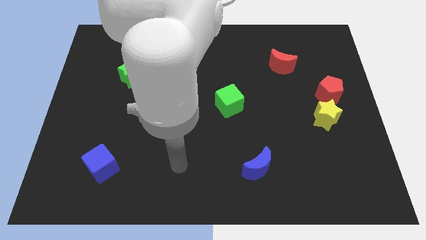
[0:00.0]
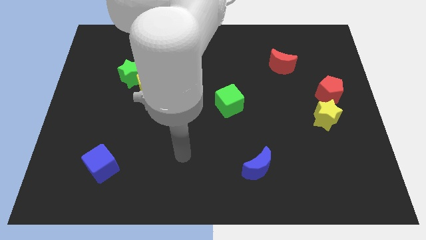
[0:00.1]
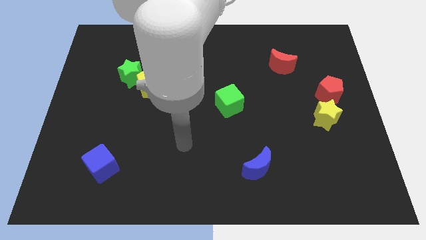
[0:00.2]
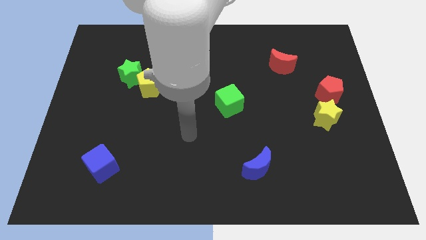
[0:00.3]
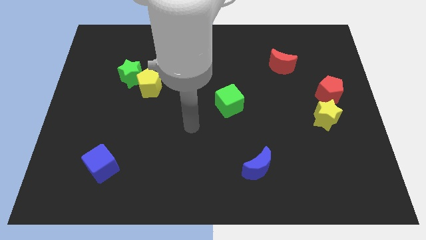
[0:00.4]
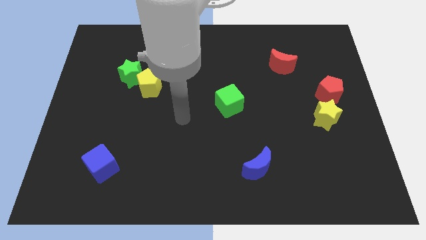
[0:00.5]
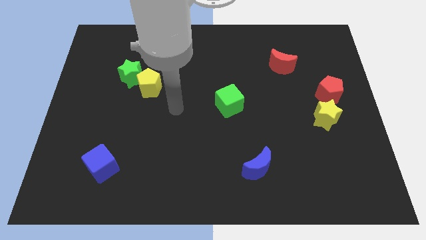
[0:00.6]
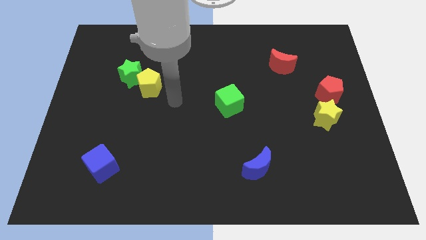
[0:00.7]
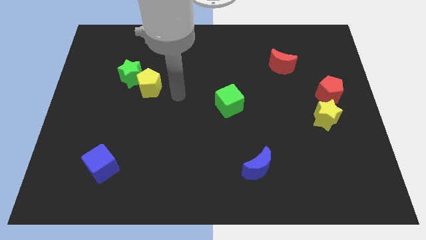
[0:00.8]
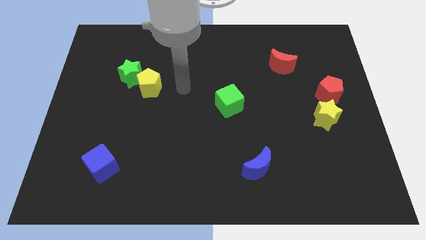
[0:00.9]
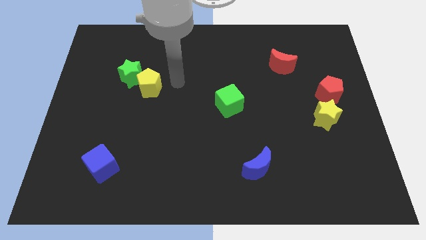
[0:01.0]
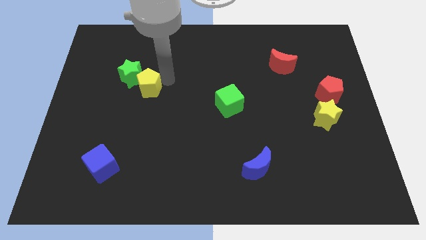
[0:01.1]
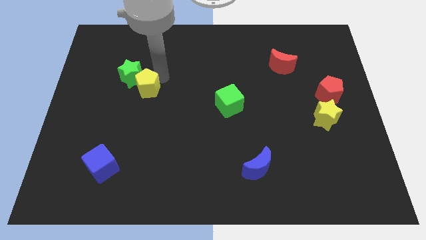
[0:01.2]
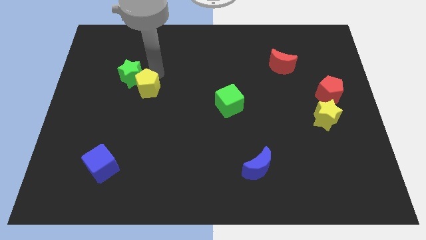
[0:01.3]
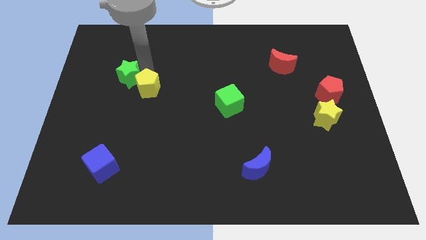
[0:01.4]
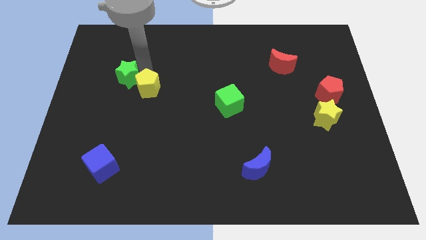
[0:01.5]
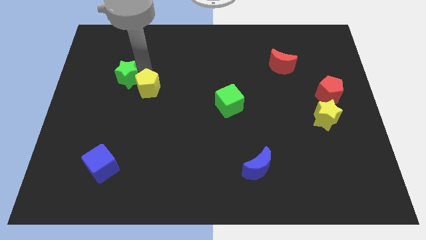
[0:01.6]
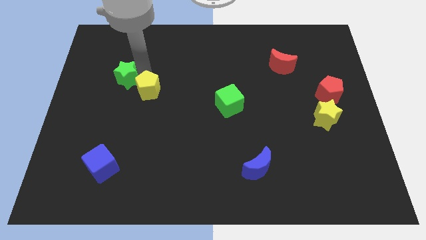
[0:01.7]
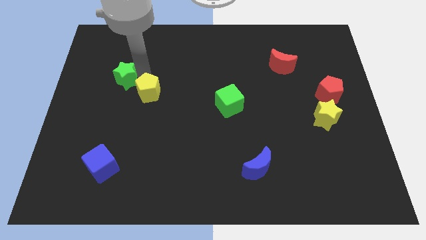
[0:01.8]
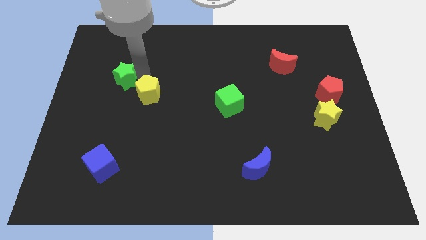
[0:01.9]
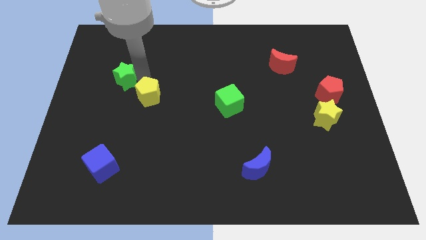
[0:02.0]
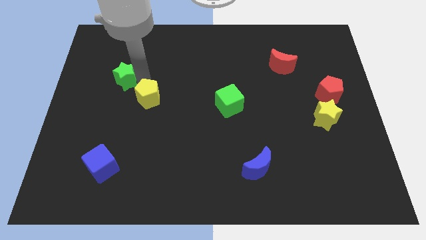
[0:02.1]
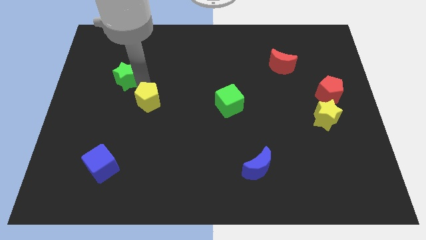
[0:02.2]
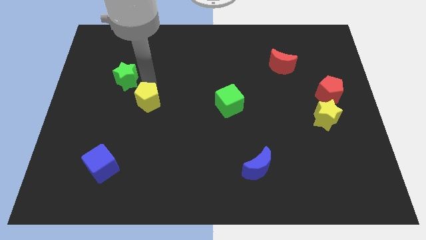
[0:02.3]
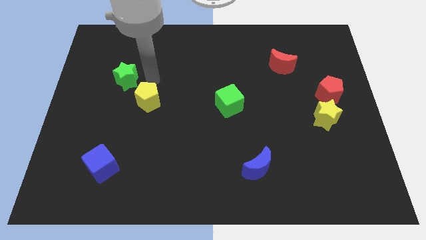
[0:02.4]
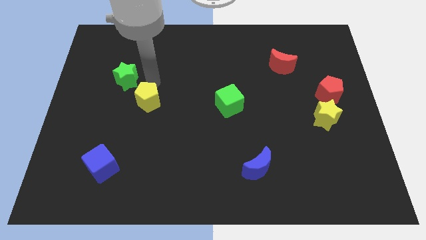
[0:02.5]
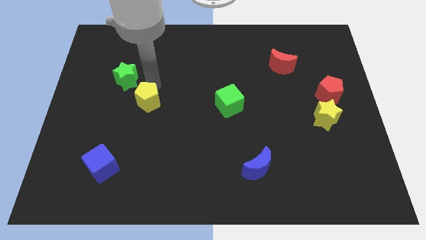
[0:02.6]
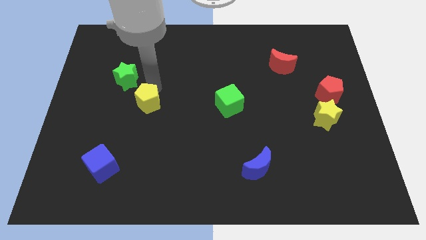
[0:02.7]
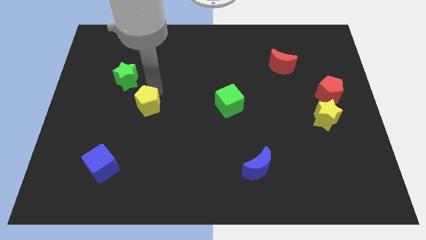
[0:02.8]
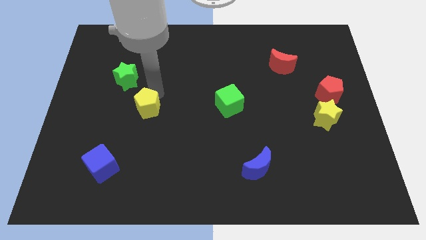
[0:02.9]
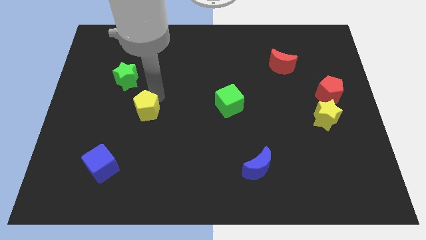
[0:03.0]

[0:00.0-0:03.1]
push the yellow pentagon down a little

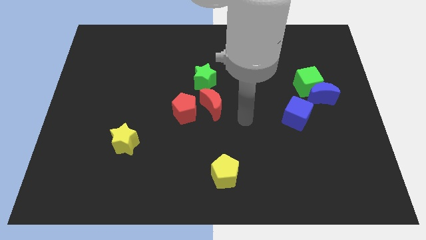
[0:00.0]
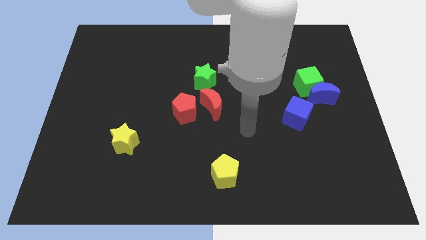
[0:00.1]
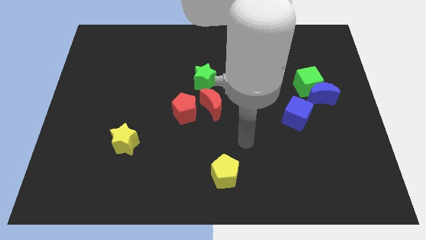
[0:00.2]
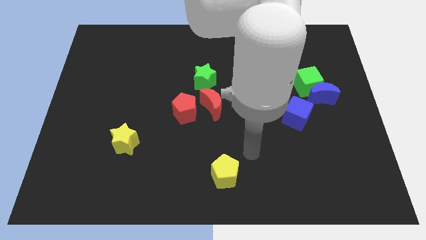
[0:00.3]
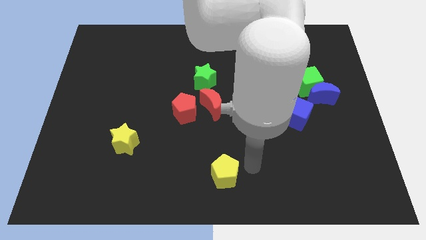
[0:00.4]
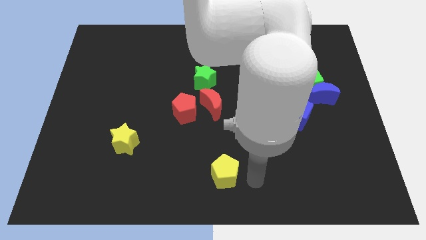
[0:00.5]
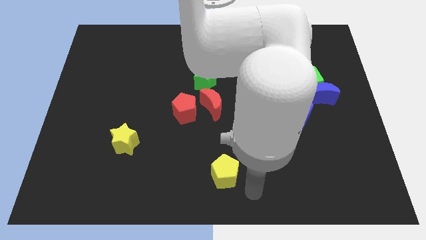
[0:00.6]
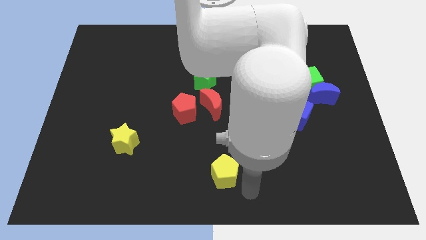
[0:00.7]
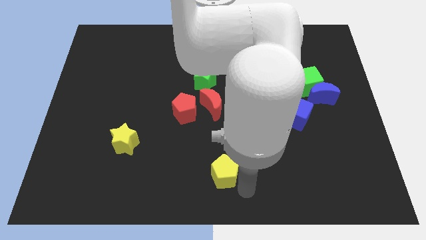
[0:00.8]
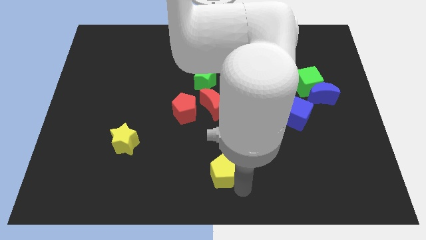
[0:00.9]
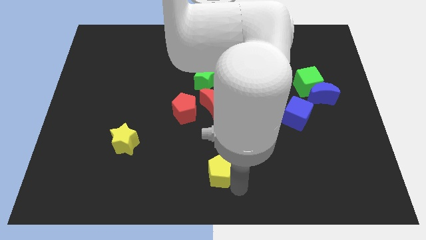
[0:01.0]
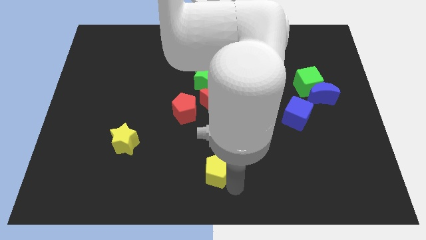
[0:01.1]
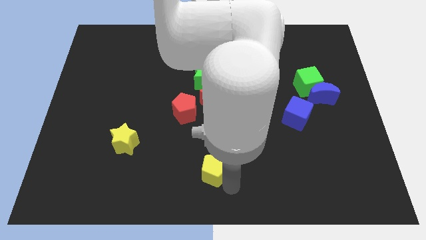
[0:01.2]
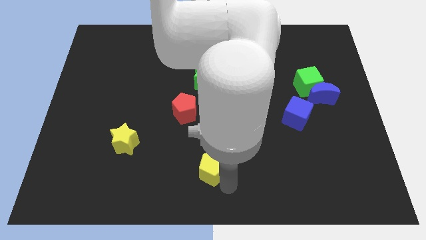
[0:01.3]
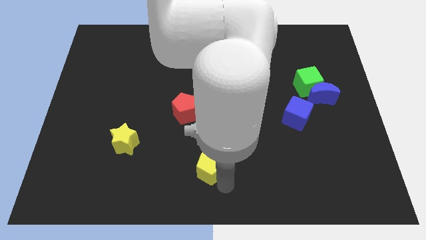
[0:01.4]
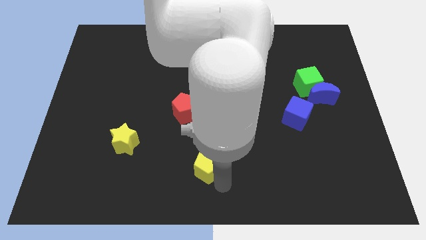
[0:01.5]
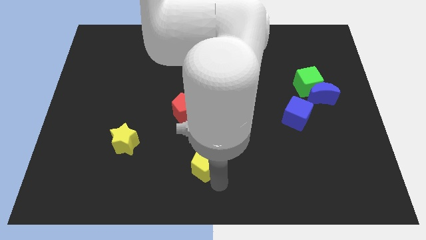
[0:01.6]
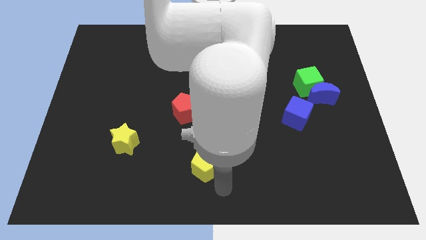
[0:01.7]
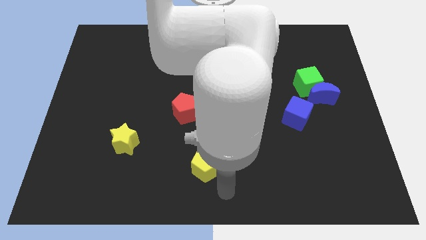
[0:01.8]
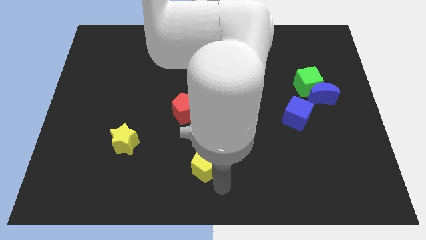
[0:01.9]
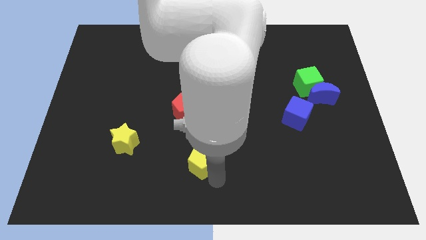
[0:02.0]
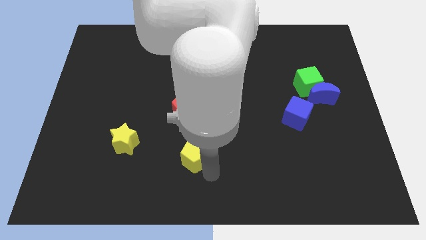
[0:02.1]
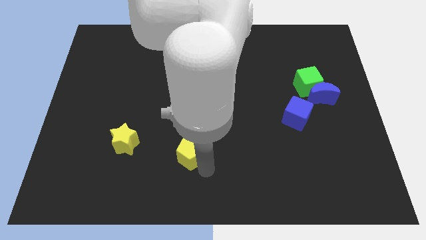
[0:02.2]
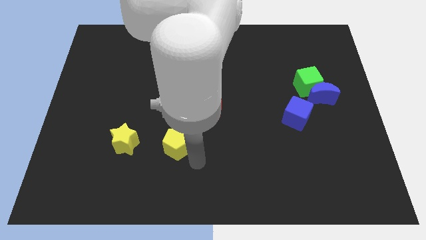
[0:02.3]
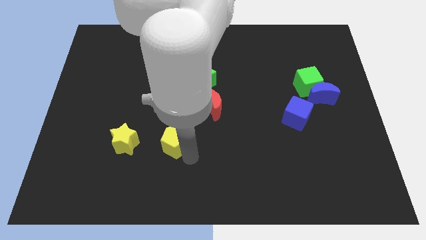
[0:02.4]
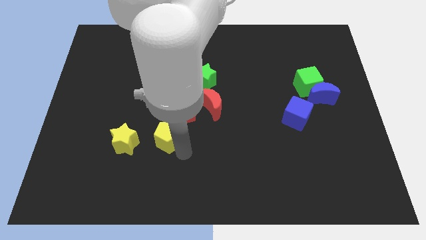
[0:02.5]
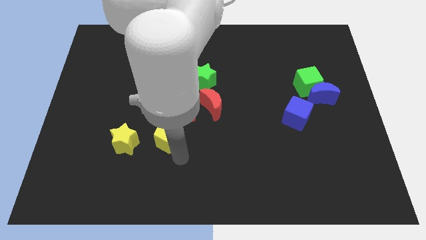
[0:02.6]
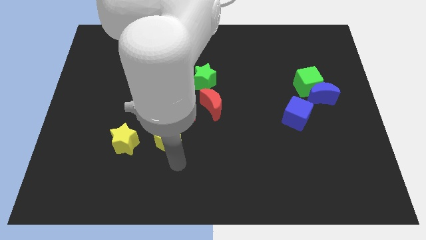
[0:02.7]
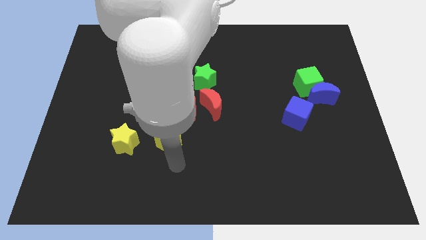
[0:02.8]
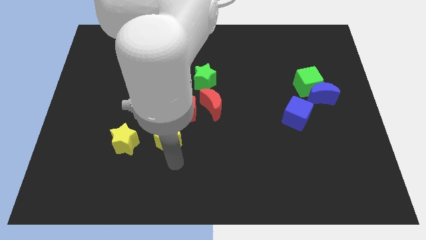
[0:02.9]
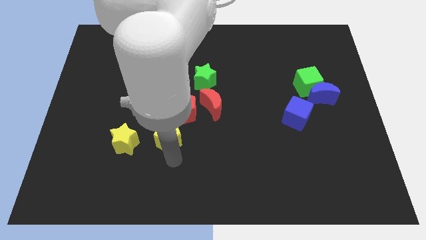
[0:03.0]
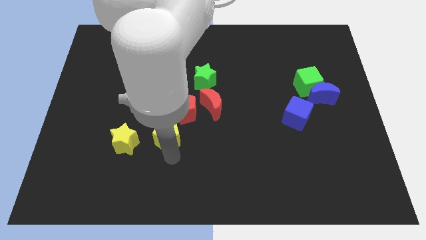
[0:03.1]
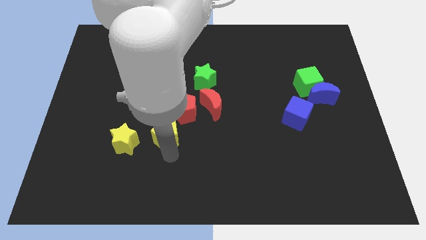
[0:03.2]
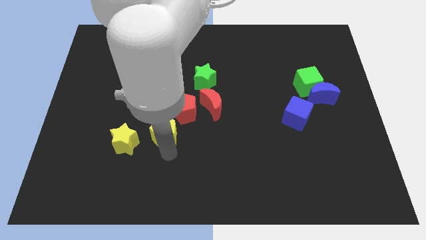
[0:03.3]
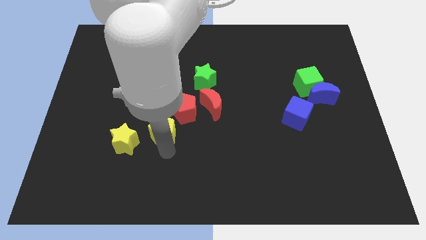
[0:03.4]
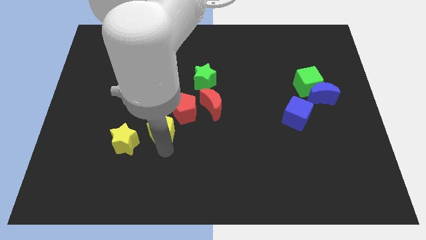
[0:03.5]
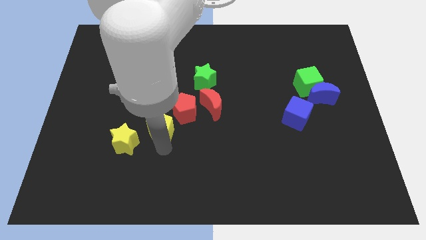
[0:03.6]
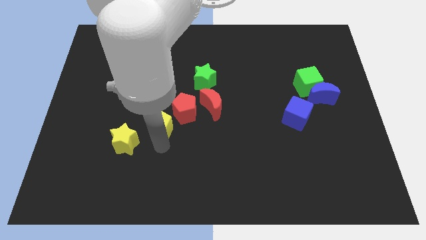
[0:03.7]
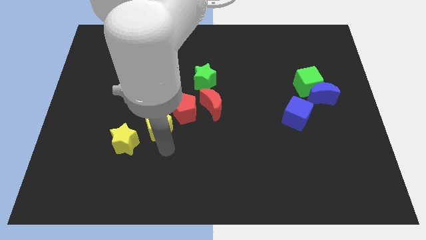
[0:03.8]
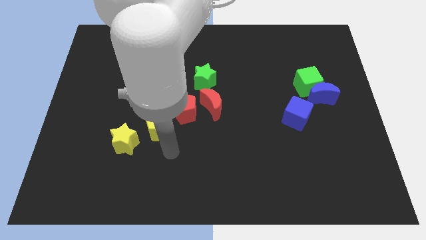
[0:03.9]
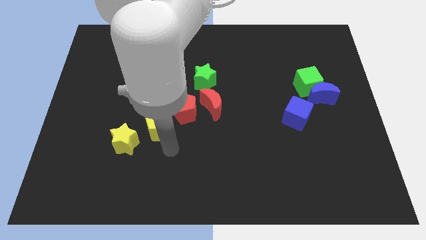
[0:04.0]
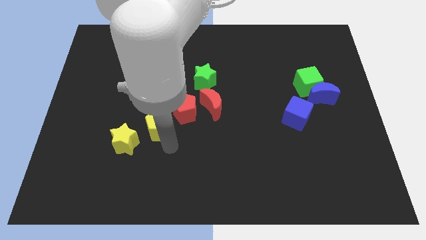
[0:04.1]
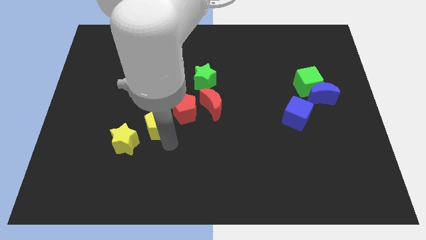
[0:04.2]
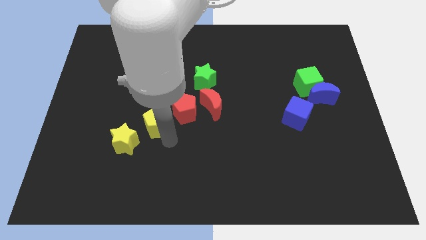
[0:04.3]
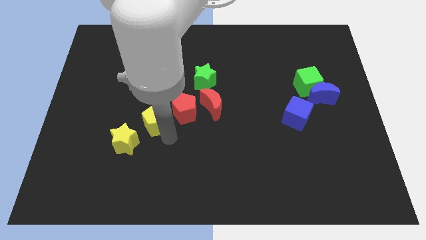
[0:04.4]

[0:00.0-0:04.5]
slide the yellow pentagon up and then left

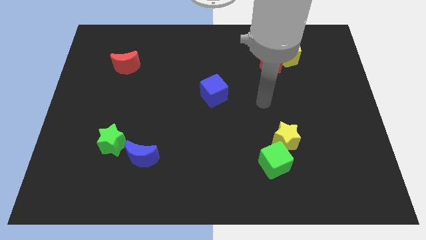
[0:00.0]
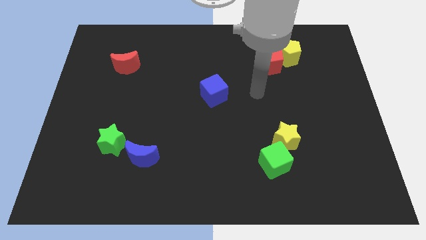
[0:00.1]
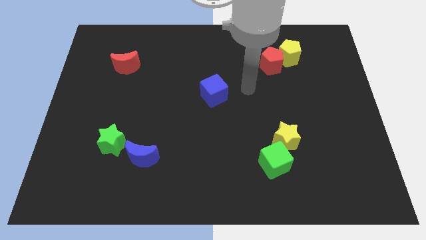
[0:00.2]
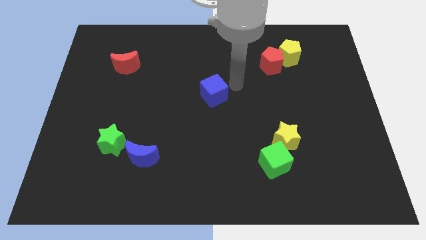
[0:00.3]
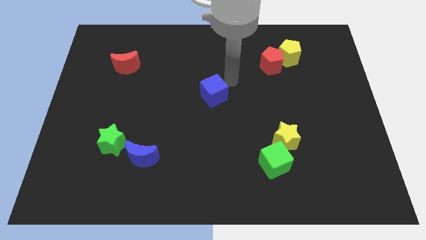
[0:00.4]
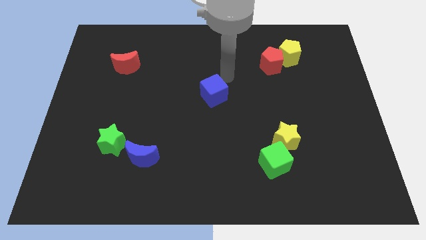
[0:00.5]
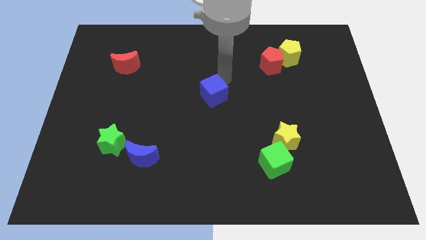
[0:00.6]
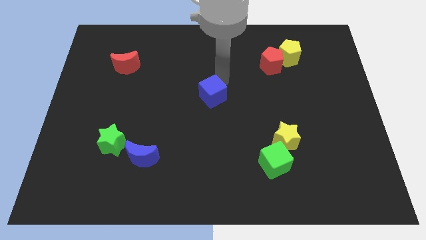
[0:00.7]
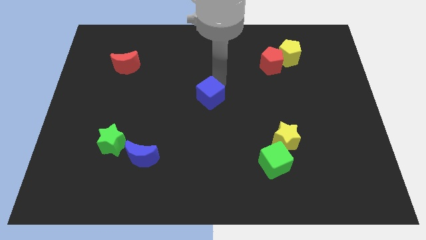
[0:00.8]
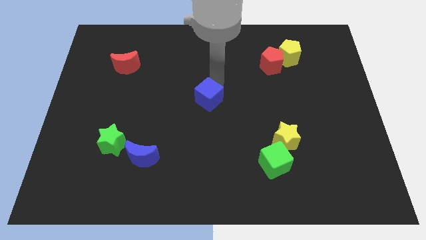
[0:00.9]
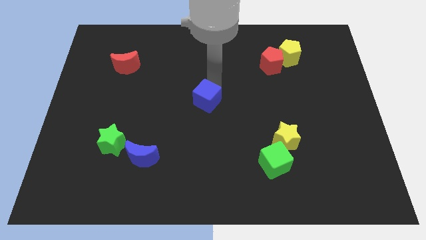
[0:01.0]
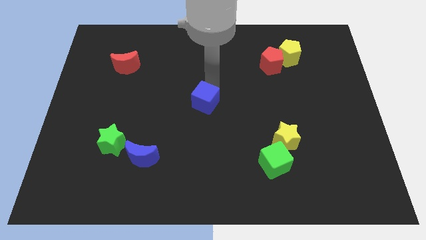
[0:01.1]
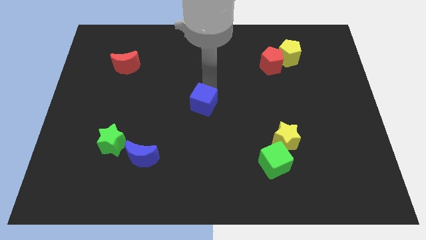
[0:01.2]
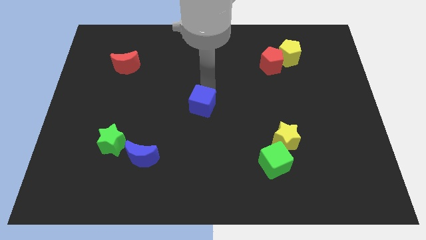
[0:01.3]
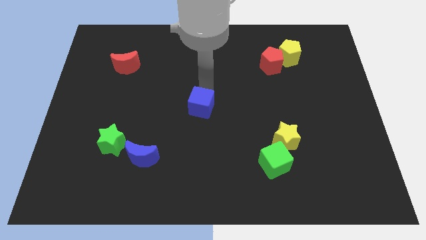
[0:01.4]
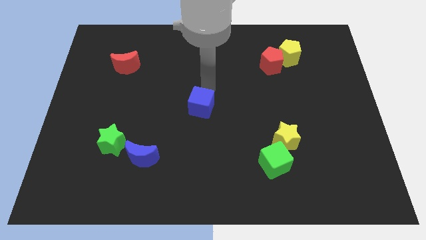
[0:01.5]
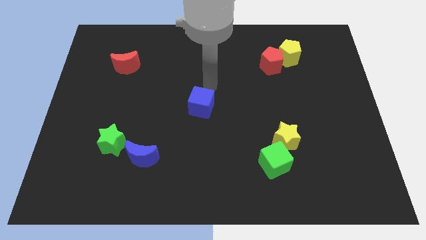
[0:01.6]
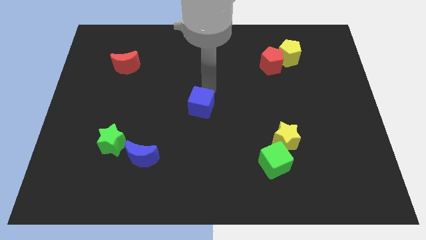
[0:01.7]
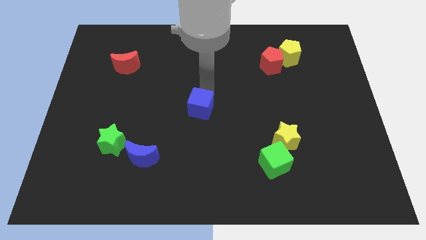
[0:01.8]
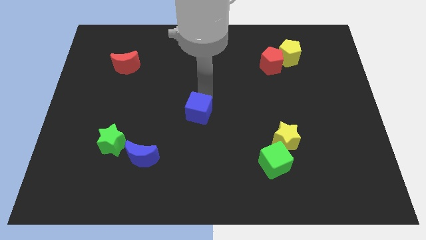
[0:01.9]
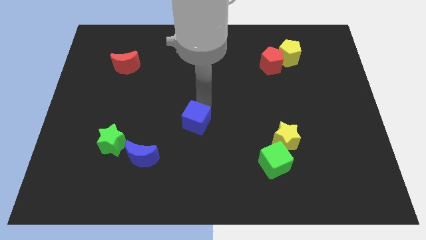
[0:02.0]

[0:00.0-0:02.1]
push the blue cube slightly downwards and to the left
